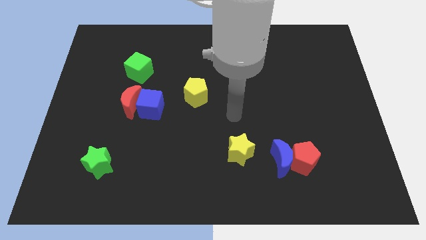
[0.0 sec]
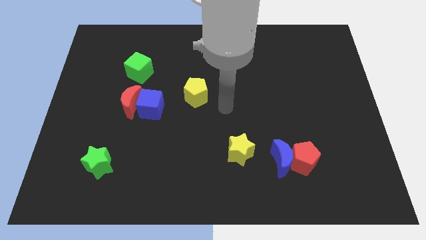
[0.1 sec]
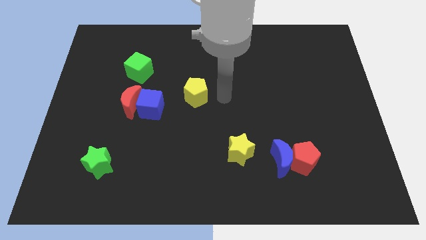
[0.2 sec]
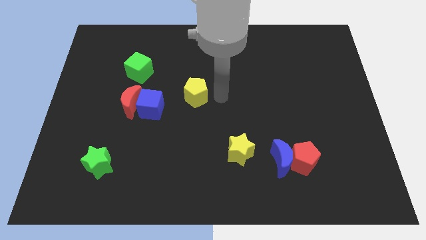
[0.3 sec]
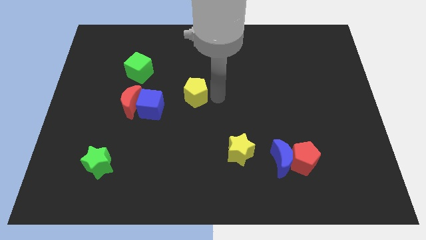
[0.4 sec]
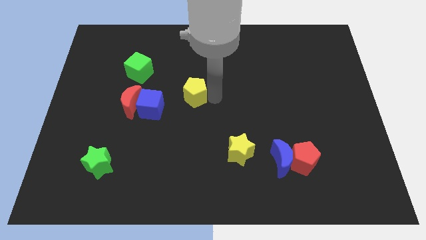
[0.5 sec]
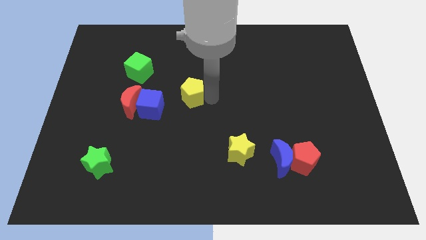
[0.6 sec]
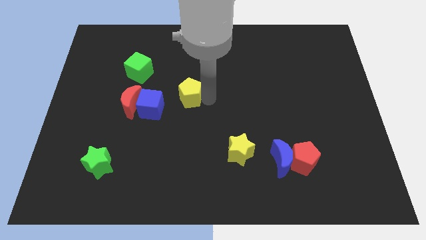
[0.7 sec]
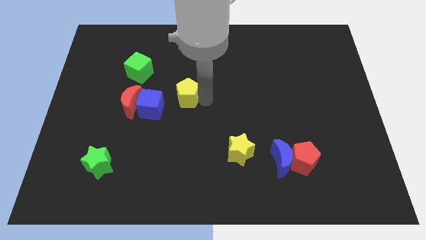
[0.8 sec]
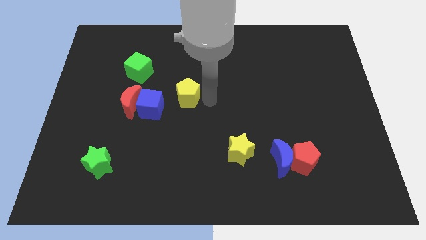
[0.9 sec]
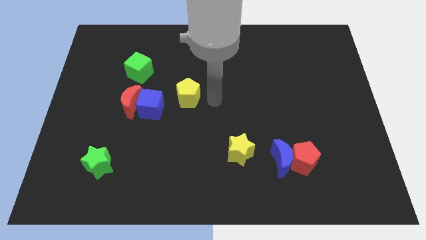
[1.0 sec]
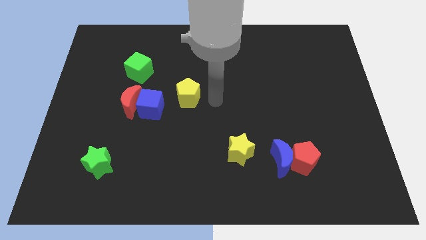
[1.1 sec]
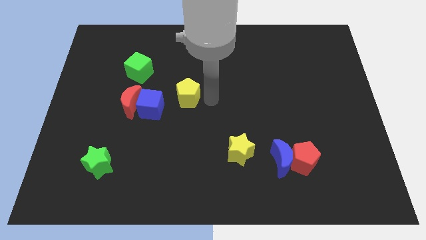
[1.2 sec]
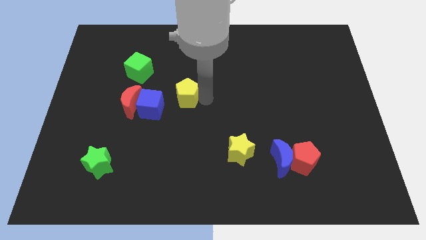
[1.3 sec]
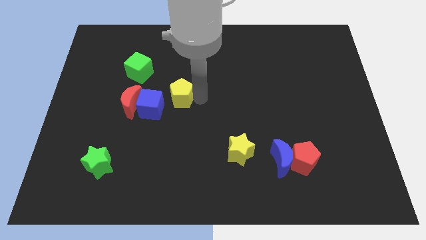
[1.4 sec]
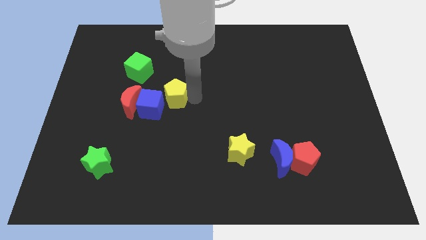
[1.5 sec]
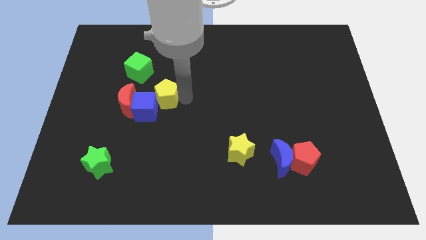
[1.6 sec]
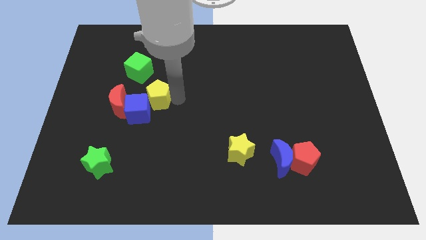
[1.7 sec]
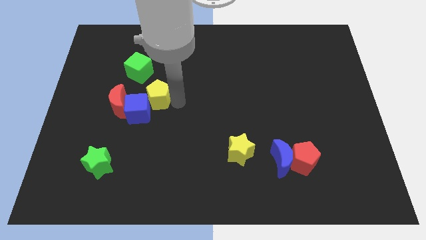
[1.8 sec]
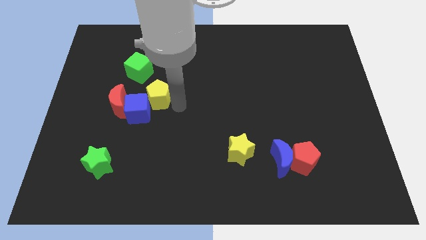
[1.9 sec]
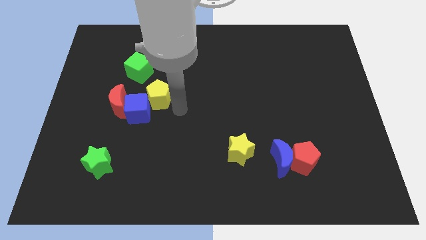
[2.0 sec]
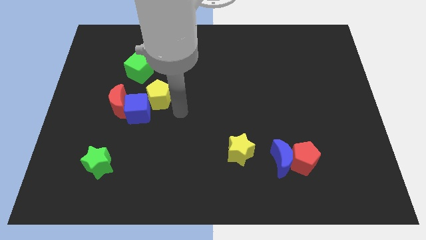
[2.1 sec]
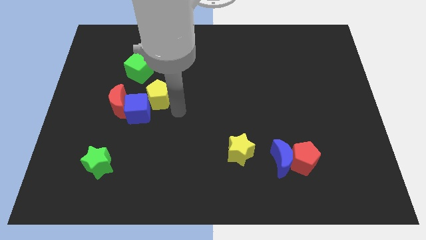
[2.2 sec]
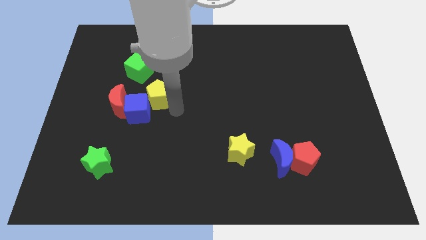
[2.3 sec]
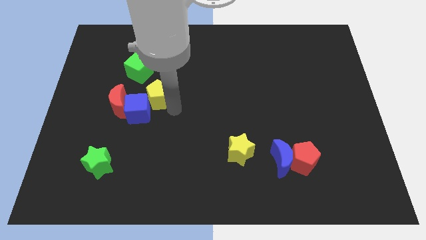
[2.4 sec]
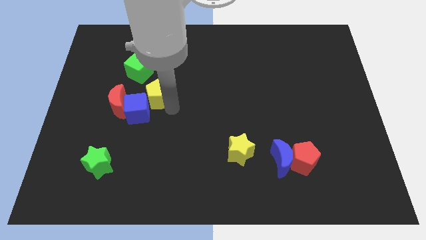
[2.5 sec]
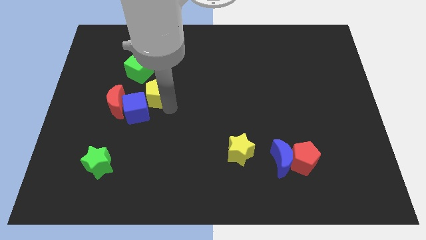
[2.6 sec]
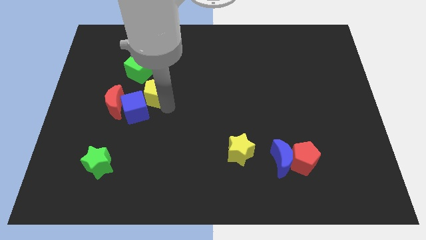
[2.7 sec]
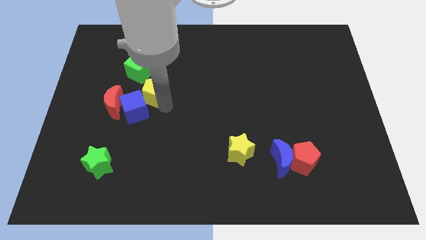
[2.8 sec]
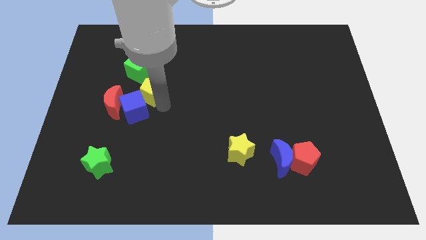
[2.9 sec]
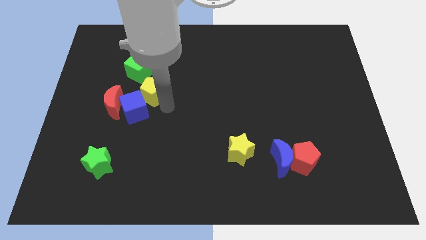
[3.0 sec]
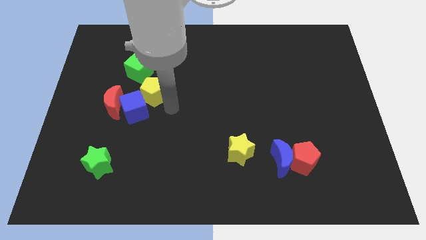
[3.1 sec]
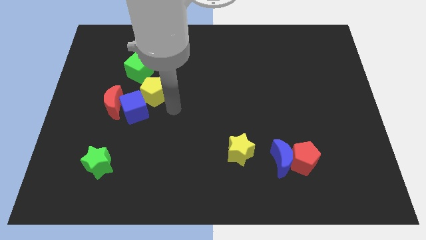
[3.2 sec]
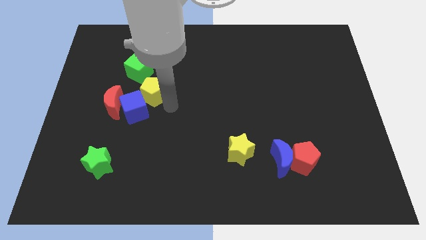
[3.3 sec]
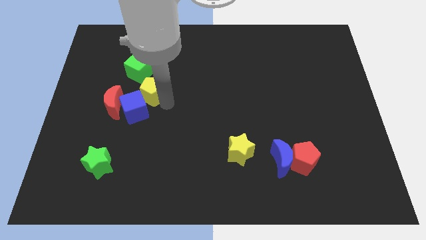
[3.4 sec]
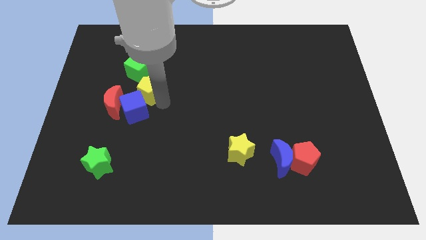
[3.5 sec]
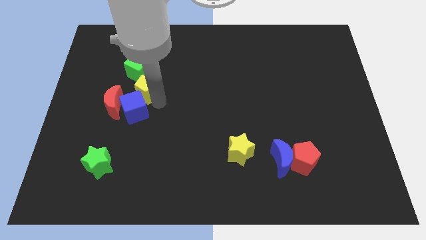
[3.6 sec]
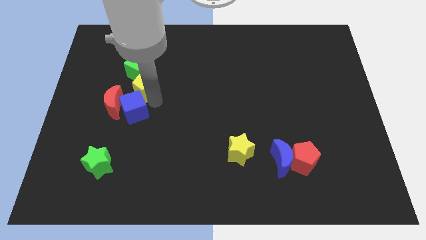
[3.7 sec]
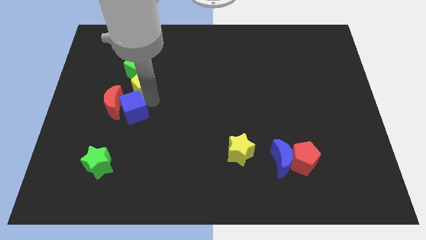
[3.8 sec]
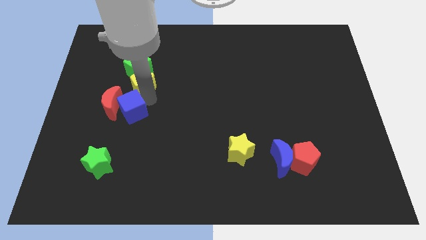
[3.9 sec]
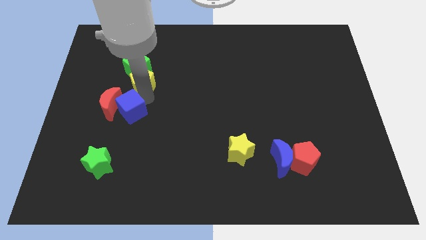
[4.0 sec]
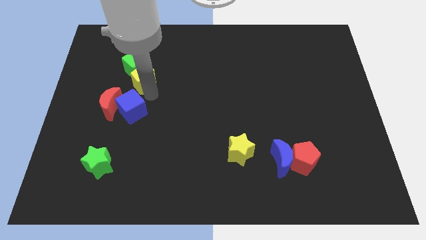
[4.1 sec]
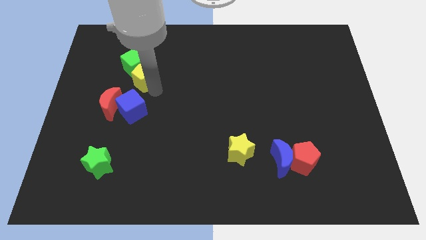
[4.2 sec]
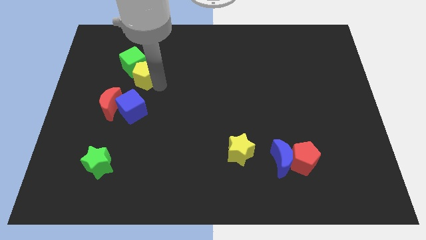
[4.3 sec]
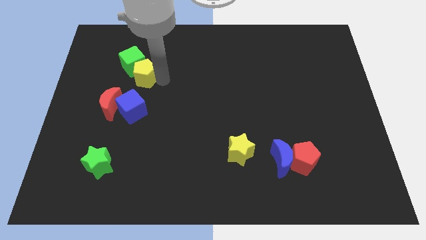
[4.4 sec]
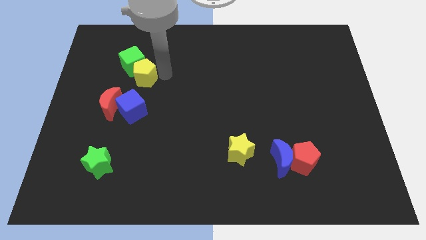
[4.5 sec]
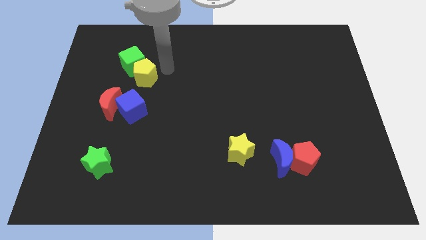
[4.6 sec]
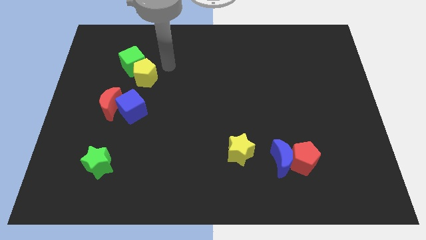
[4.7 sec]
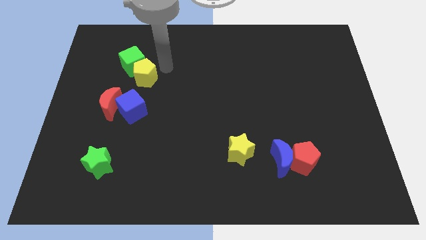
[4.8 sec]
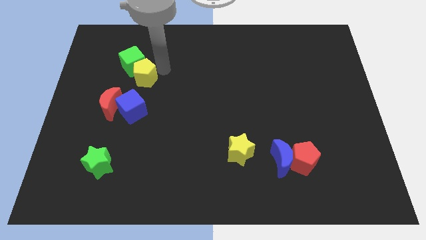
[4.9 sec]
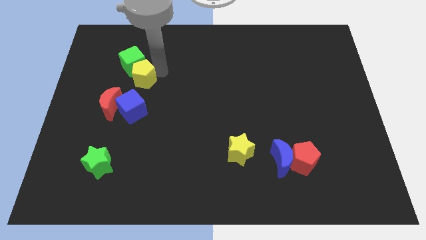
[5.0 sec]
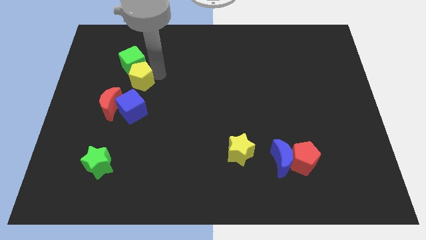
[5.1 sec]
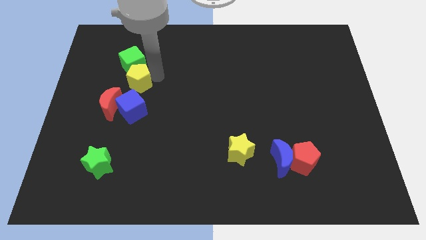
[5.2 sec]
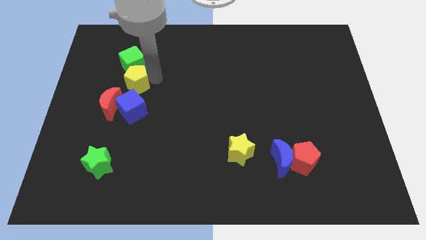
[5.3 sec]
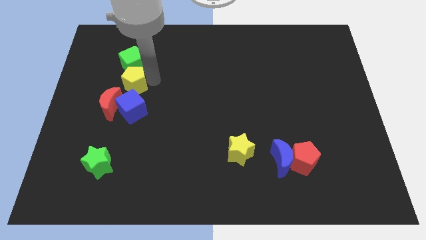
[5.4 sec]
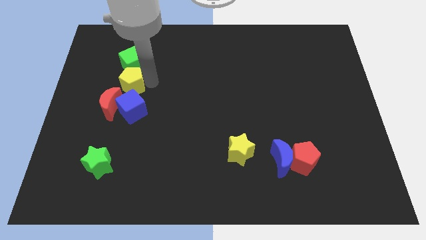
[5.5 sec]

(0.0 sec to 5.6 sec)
put the yellow pentagon diagonally up and to the left of the blue cube

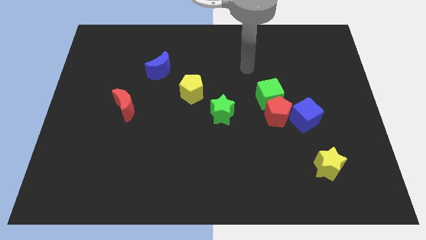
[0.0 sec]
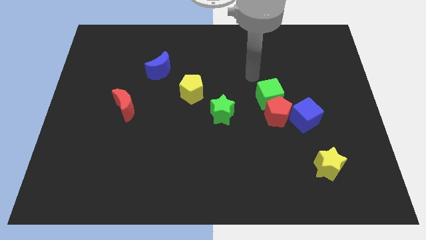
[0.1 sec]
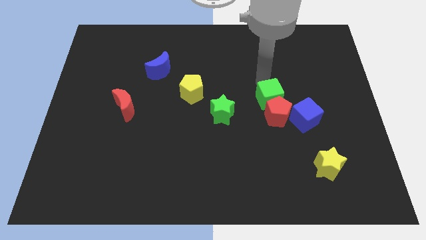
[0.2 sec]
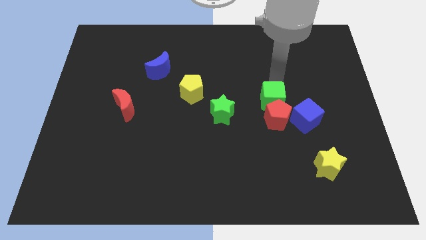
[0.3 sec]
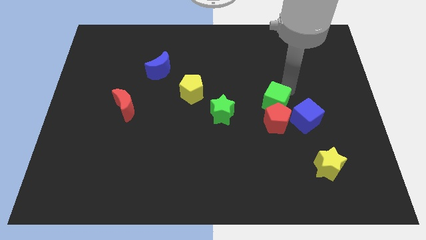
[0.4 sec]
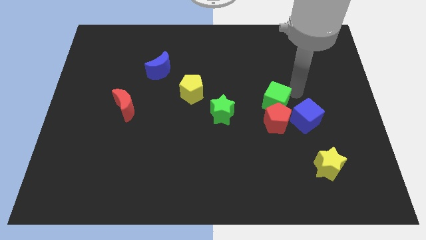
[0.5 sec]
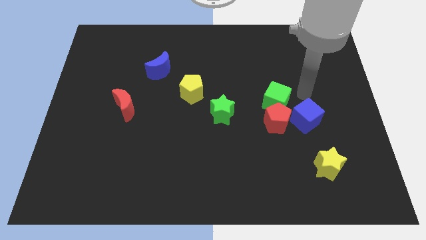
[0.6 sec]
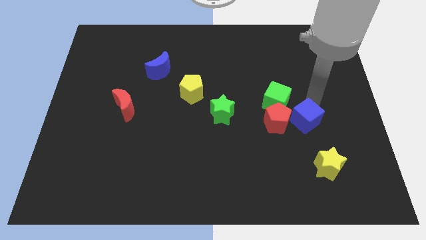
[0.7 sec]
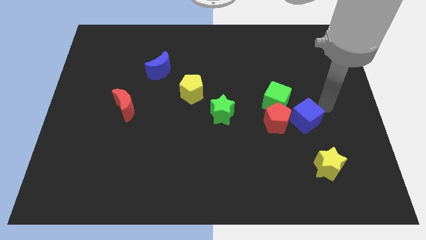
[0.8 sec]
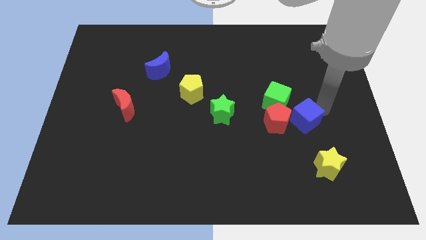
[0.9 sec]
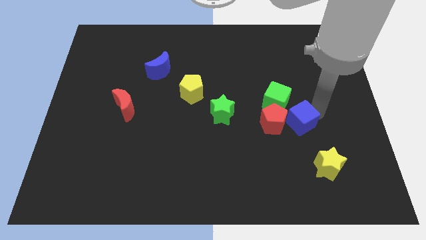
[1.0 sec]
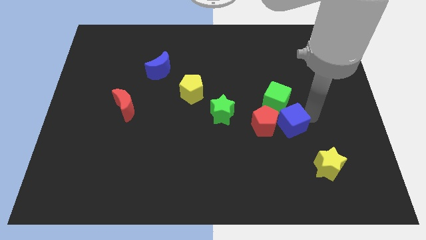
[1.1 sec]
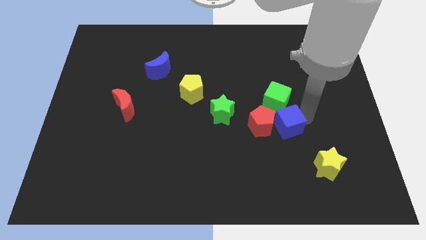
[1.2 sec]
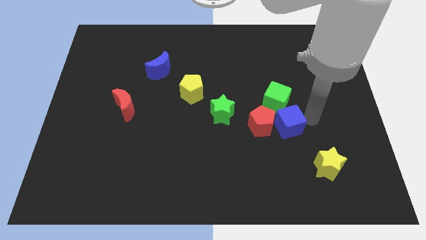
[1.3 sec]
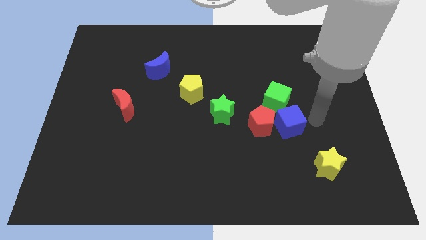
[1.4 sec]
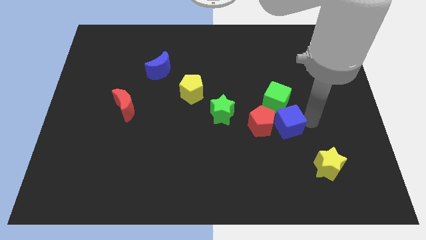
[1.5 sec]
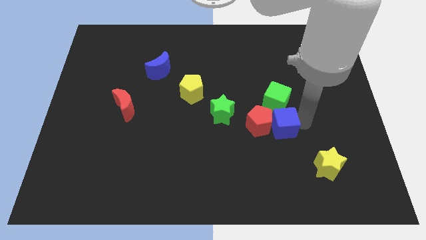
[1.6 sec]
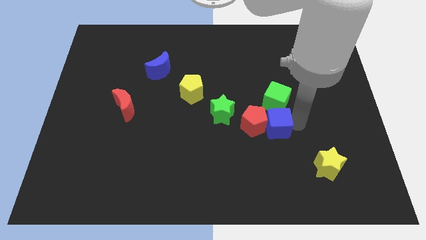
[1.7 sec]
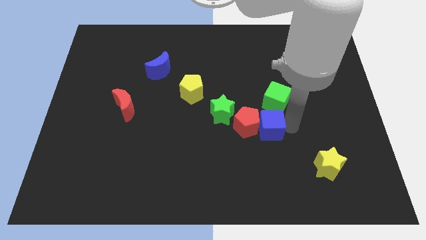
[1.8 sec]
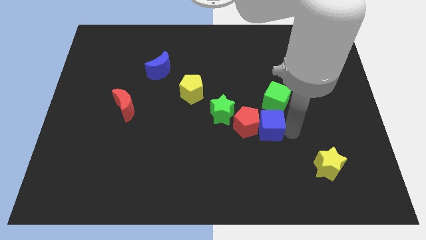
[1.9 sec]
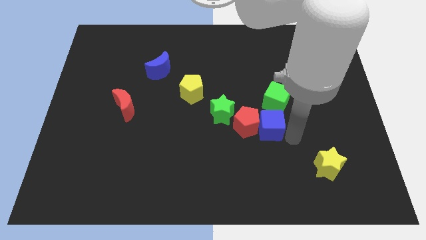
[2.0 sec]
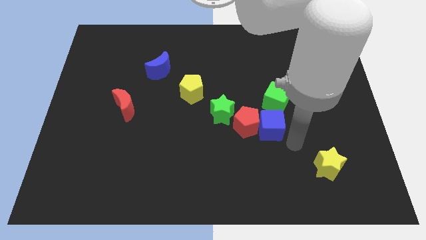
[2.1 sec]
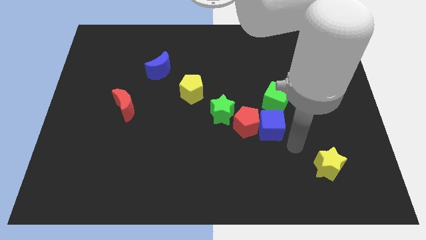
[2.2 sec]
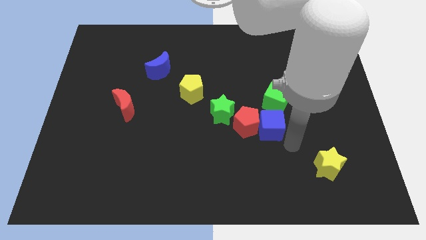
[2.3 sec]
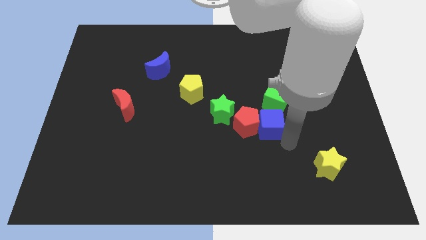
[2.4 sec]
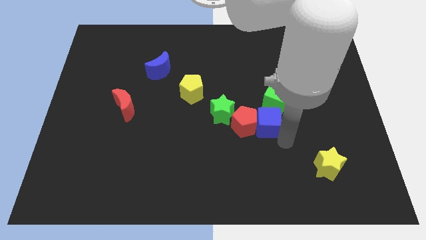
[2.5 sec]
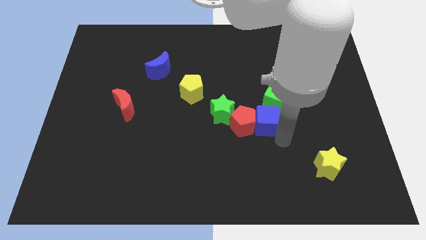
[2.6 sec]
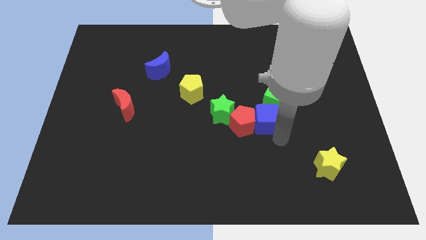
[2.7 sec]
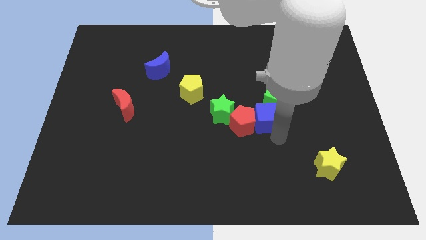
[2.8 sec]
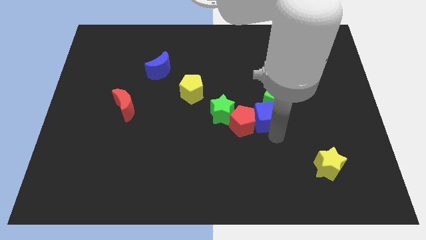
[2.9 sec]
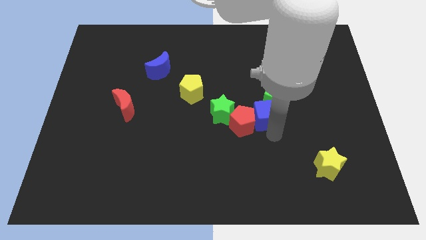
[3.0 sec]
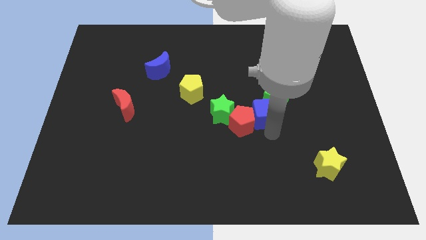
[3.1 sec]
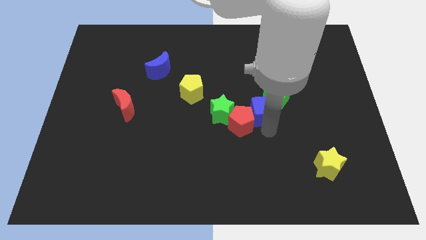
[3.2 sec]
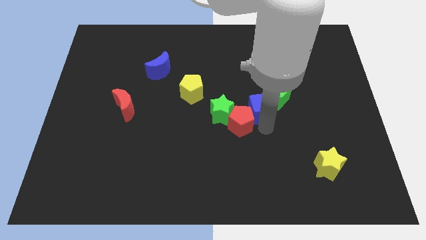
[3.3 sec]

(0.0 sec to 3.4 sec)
slide the blue cube to the left of the green cube
